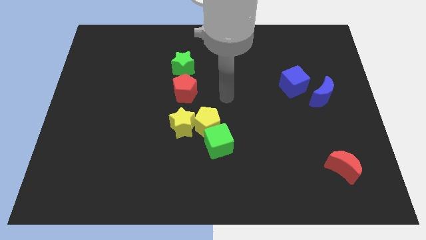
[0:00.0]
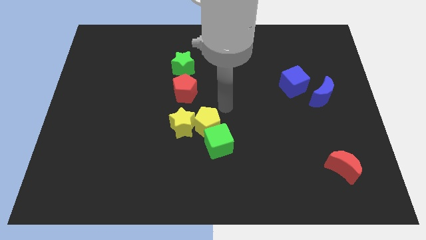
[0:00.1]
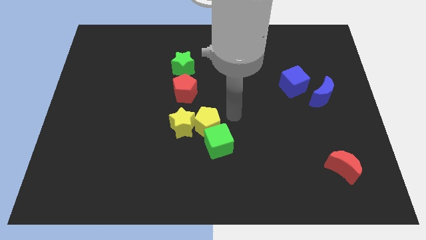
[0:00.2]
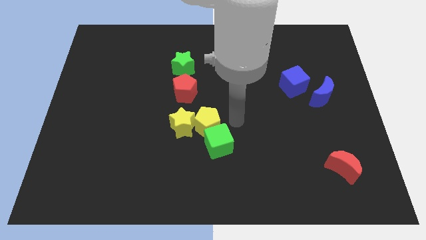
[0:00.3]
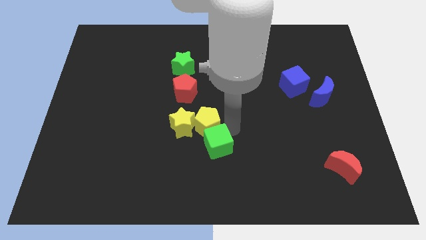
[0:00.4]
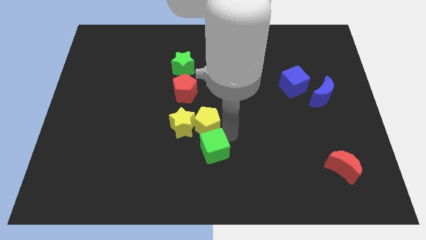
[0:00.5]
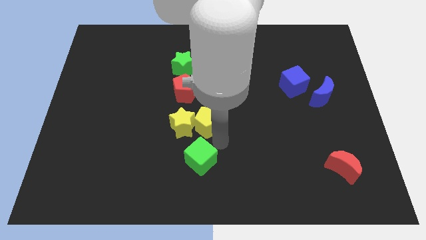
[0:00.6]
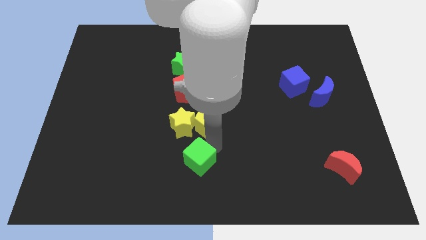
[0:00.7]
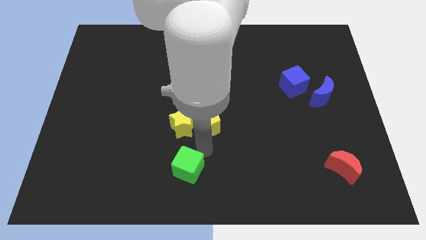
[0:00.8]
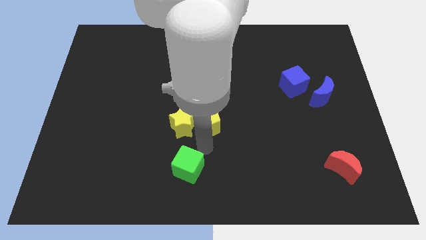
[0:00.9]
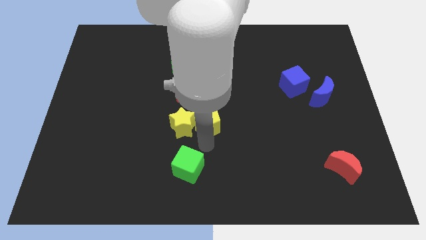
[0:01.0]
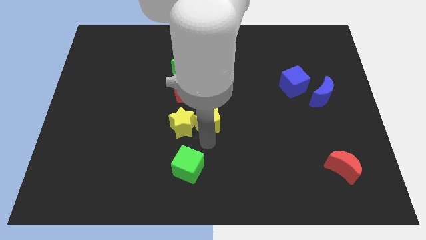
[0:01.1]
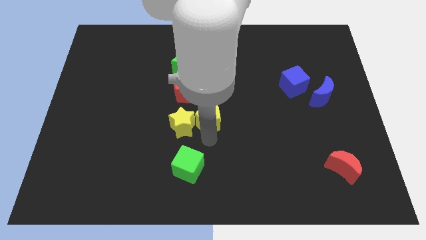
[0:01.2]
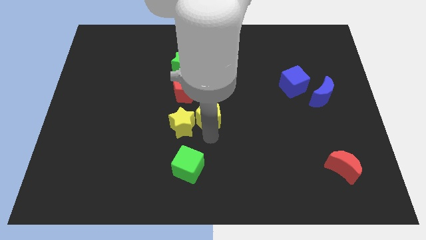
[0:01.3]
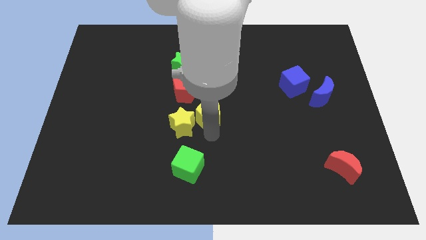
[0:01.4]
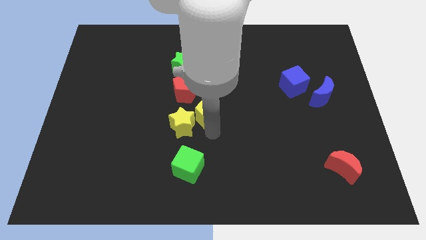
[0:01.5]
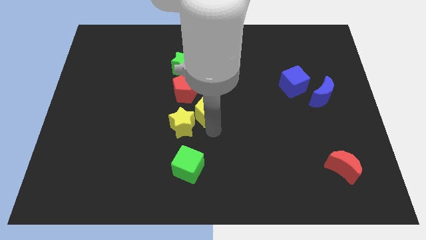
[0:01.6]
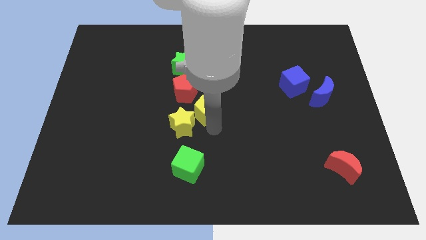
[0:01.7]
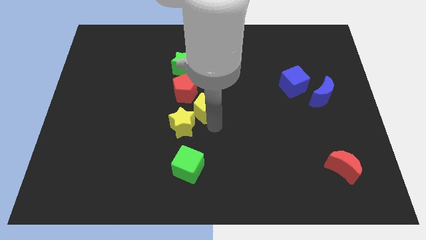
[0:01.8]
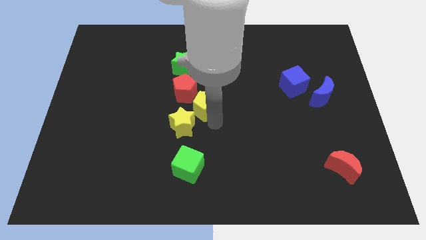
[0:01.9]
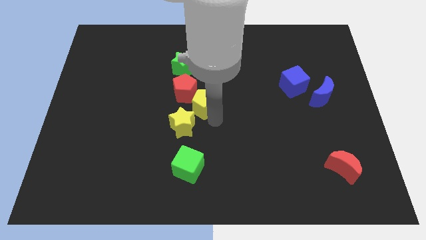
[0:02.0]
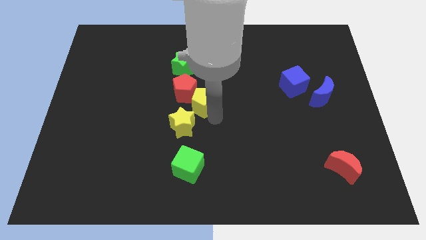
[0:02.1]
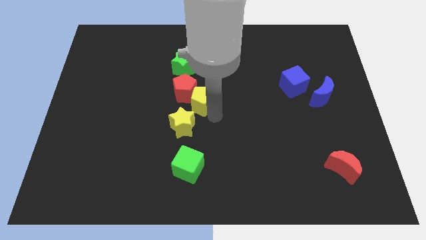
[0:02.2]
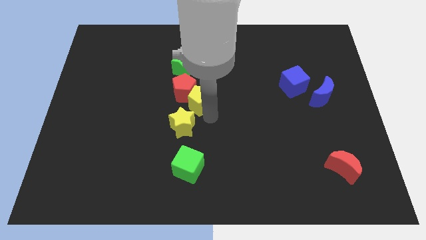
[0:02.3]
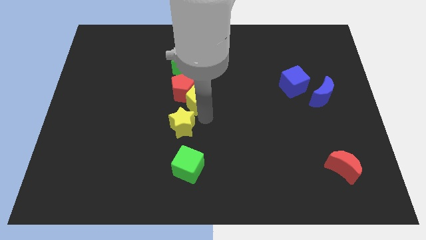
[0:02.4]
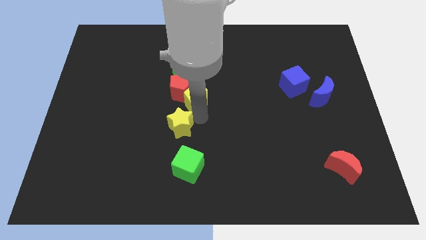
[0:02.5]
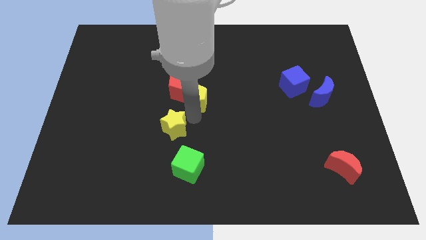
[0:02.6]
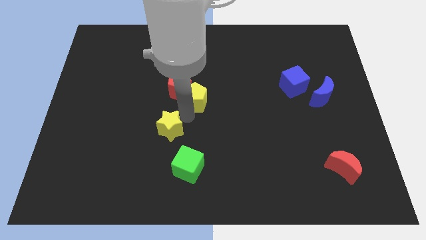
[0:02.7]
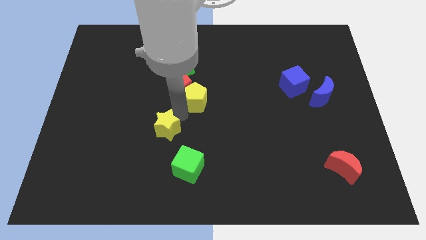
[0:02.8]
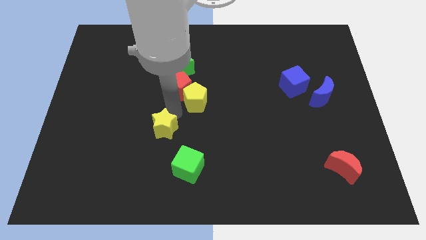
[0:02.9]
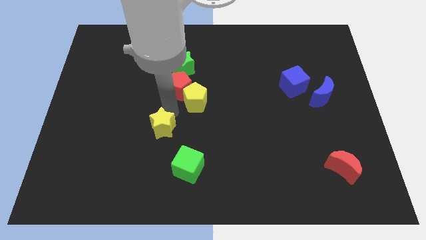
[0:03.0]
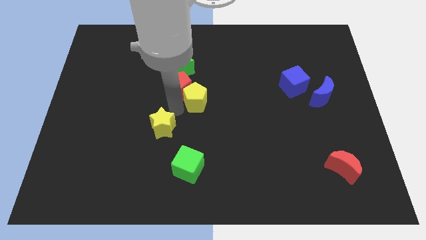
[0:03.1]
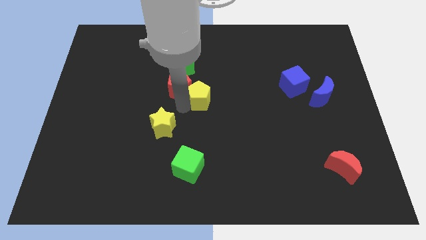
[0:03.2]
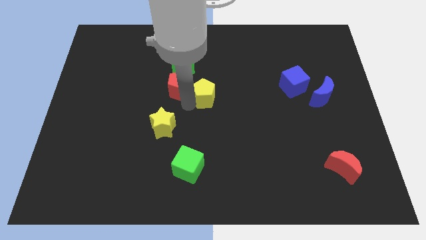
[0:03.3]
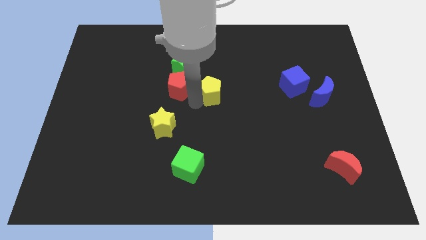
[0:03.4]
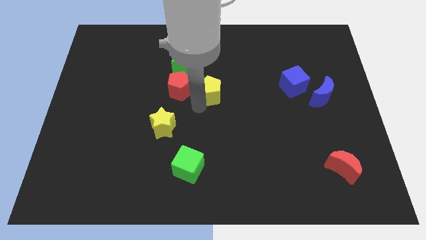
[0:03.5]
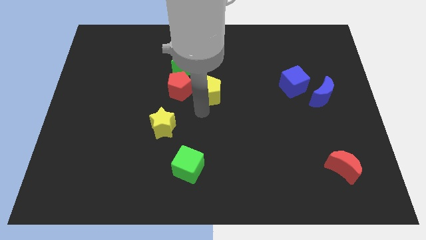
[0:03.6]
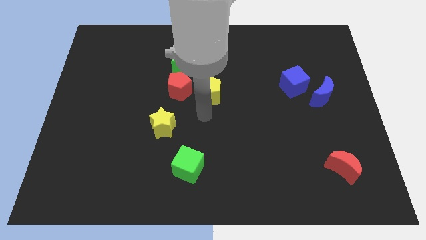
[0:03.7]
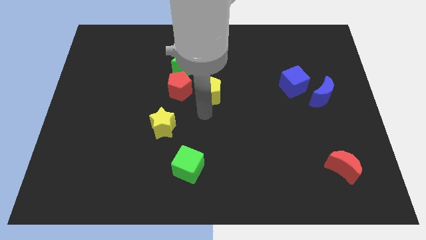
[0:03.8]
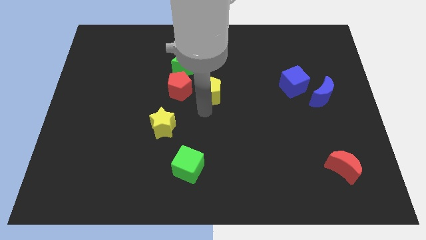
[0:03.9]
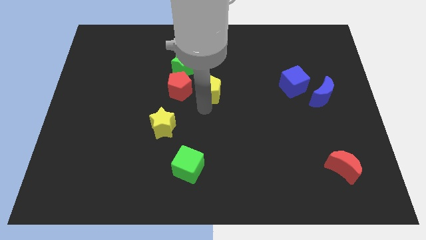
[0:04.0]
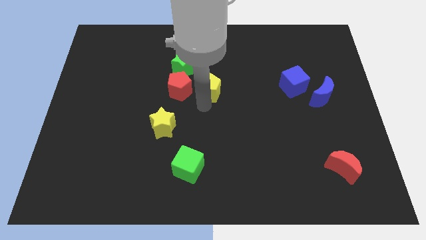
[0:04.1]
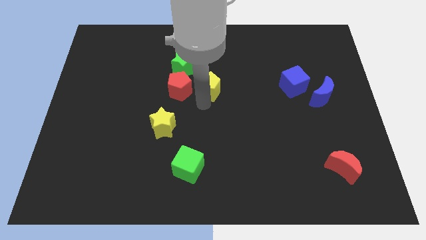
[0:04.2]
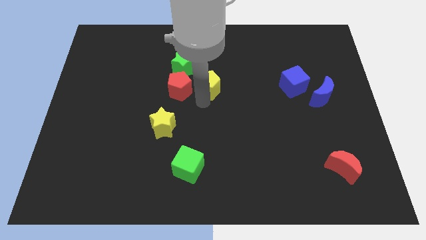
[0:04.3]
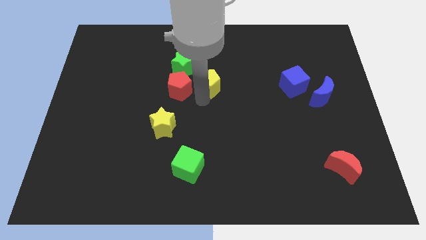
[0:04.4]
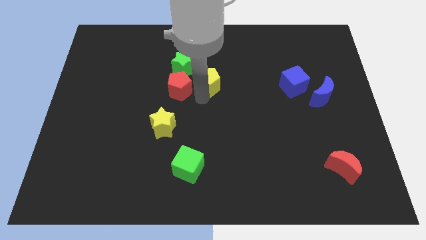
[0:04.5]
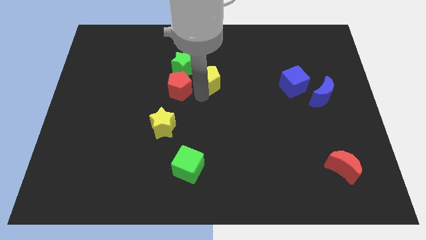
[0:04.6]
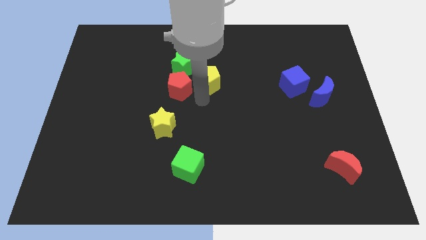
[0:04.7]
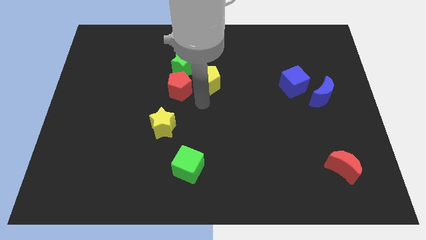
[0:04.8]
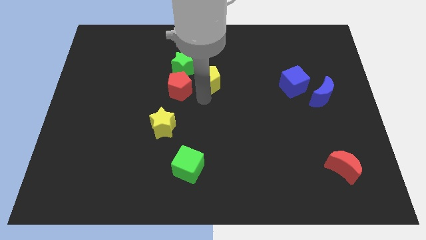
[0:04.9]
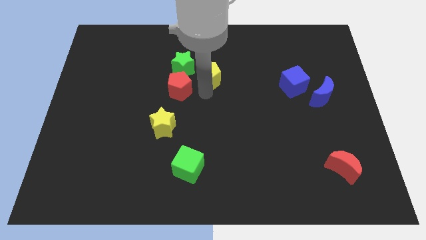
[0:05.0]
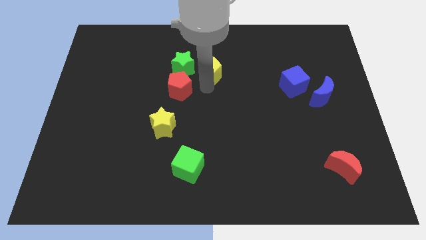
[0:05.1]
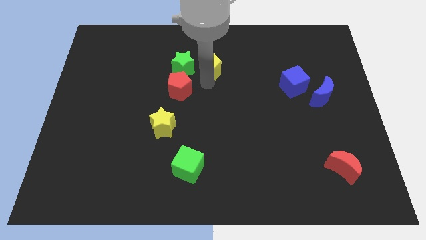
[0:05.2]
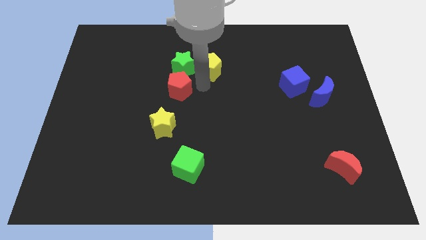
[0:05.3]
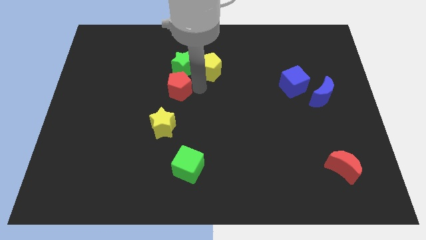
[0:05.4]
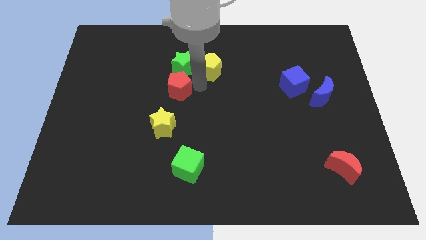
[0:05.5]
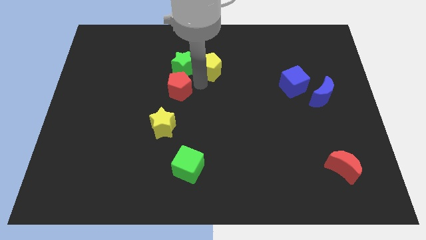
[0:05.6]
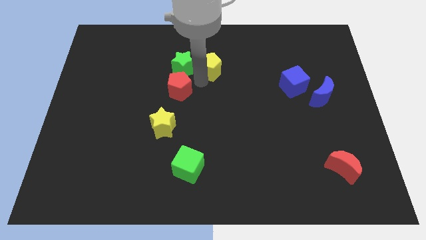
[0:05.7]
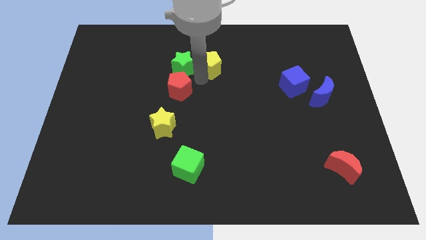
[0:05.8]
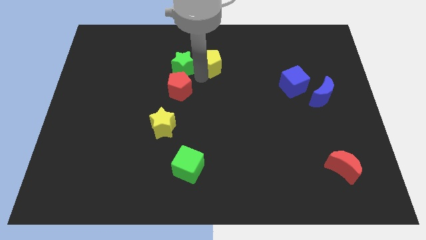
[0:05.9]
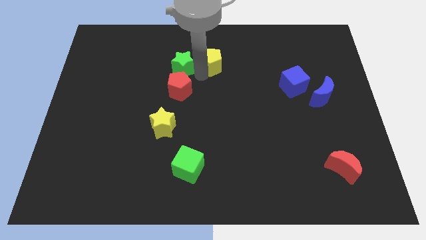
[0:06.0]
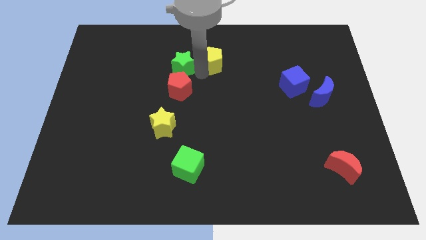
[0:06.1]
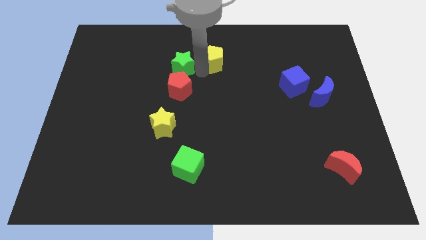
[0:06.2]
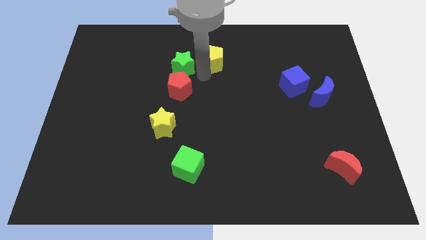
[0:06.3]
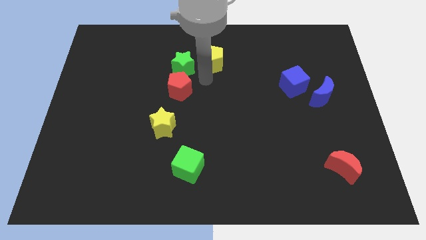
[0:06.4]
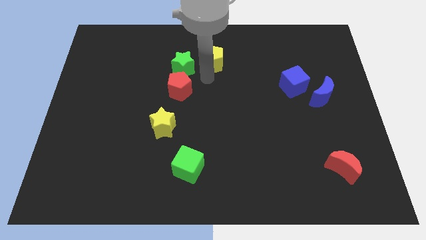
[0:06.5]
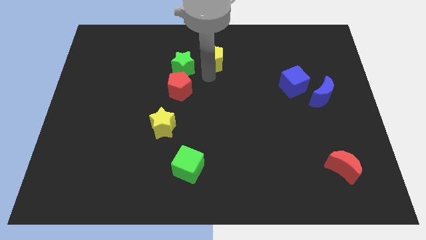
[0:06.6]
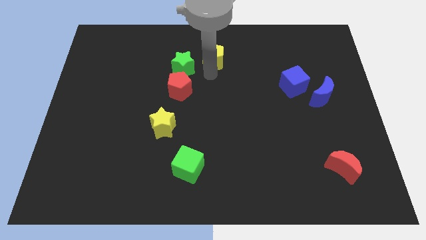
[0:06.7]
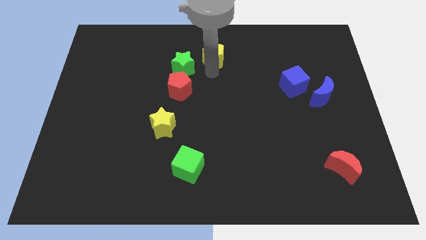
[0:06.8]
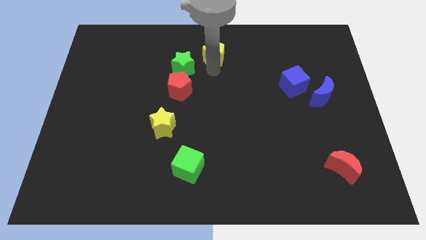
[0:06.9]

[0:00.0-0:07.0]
slide the yellow pentagon to the top side

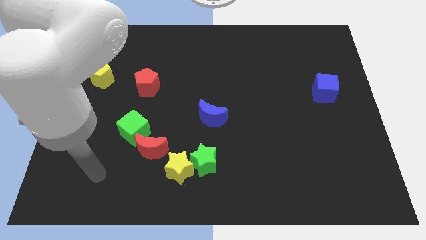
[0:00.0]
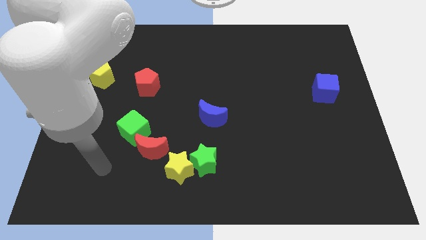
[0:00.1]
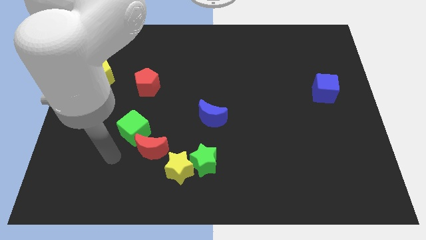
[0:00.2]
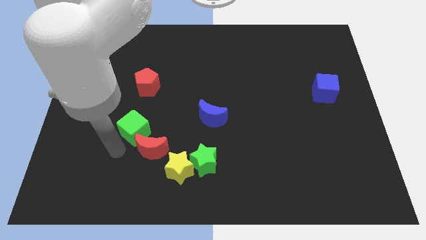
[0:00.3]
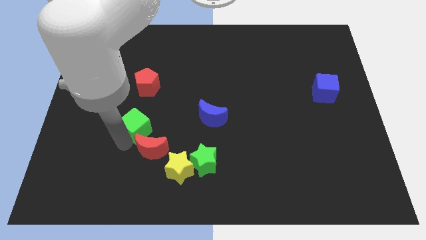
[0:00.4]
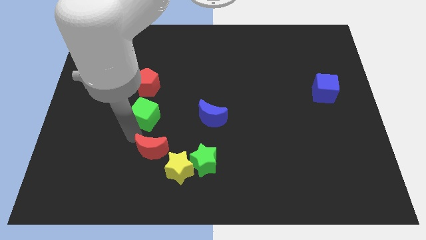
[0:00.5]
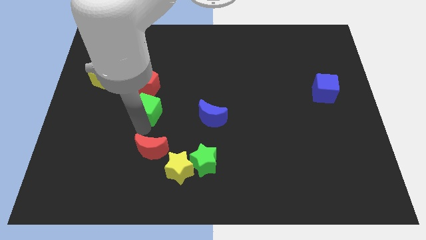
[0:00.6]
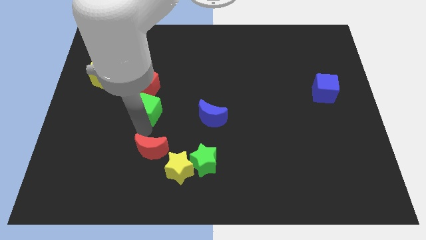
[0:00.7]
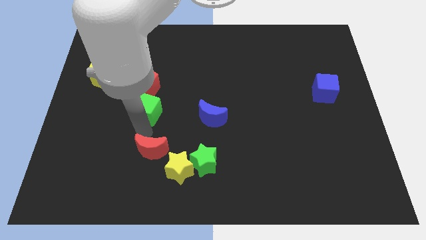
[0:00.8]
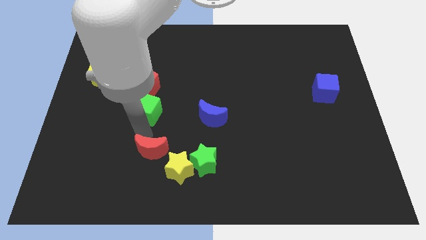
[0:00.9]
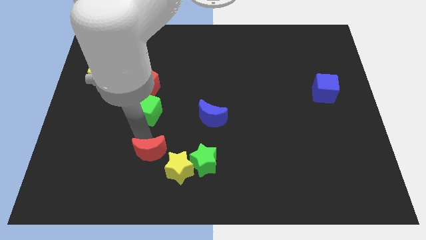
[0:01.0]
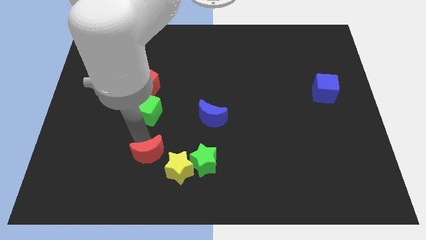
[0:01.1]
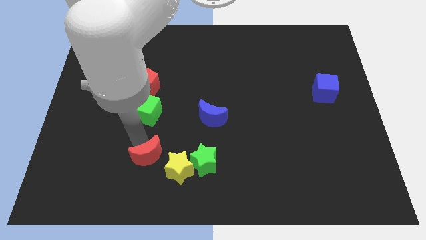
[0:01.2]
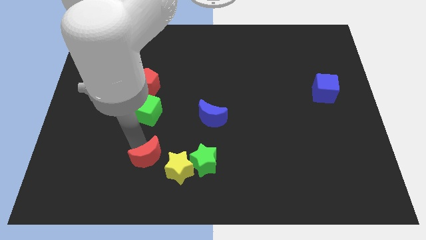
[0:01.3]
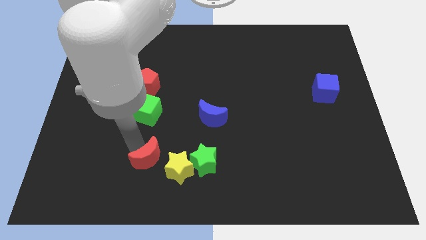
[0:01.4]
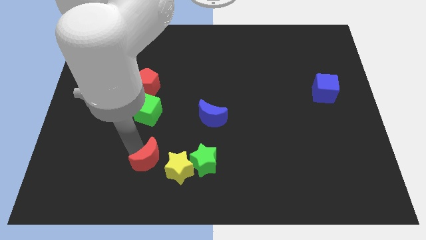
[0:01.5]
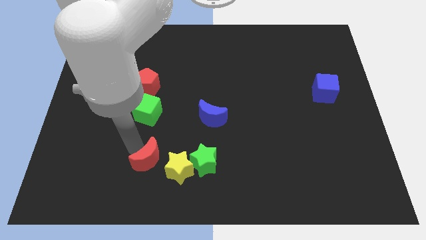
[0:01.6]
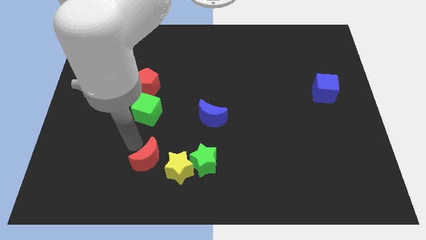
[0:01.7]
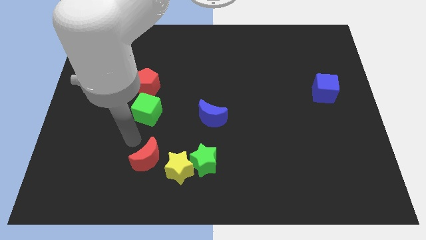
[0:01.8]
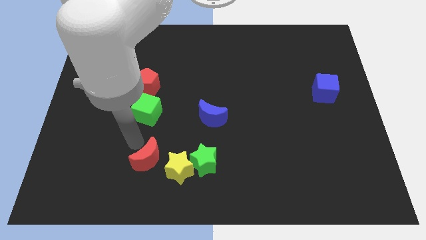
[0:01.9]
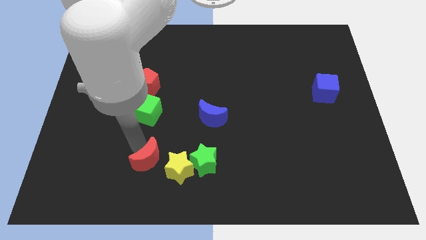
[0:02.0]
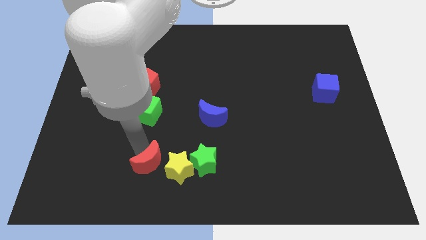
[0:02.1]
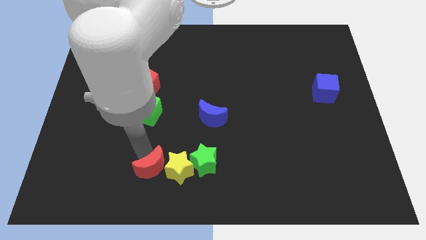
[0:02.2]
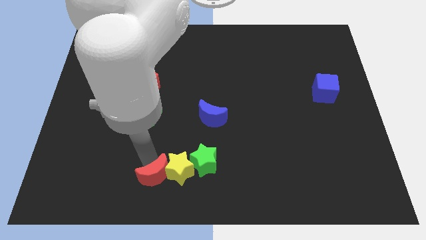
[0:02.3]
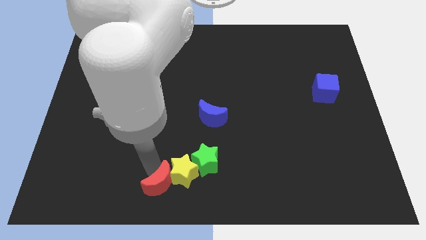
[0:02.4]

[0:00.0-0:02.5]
put the red moon to the bottom side
